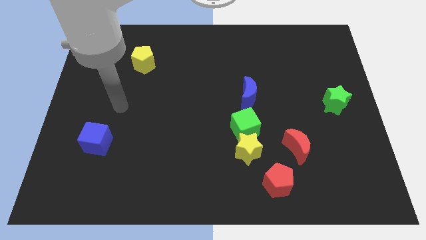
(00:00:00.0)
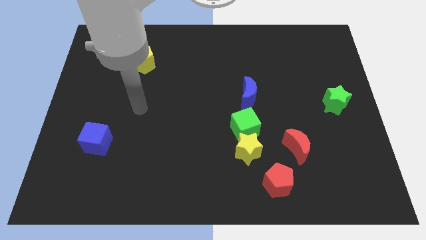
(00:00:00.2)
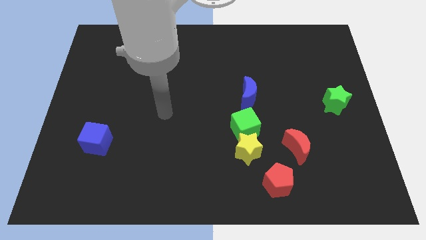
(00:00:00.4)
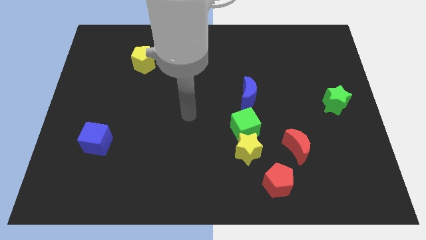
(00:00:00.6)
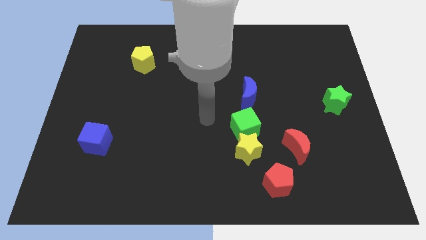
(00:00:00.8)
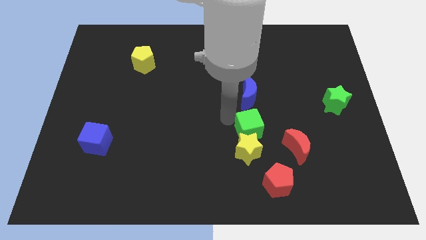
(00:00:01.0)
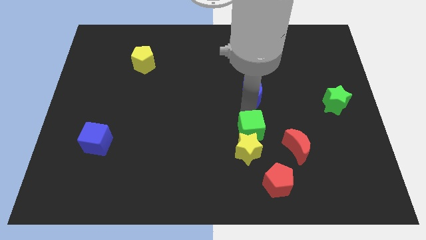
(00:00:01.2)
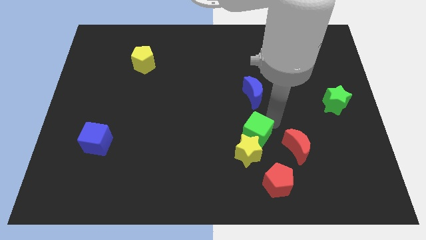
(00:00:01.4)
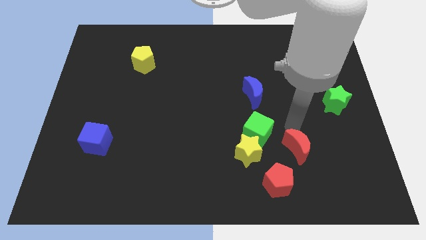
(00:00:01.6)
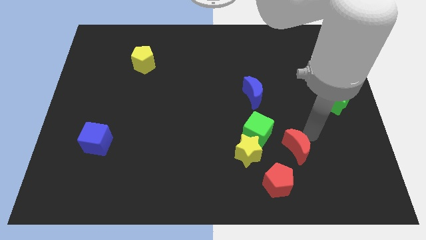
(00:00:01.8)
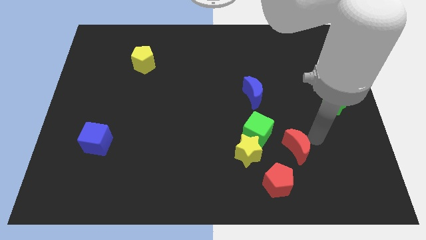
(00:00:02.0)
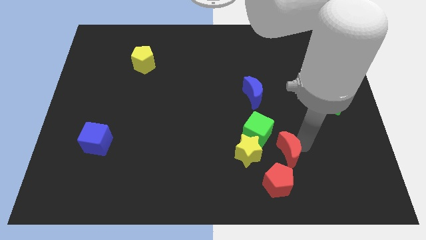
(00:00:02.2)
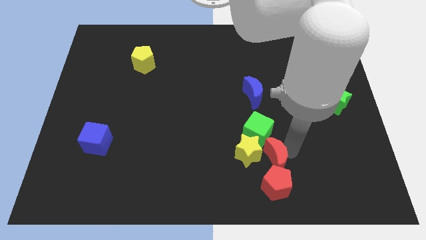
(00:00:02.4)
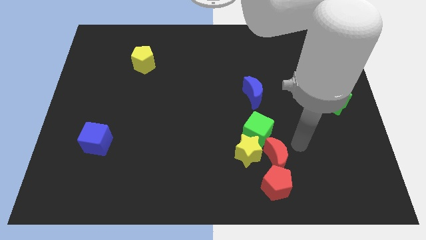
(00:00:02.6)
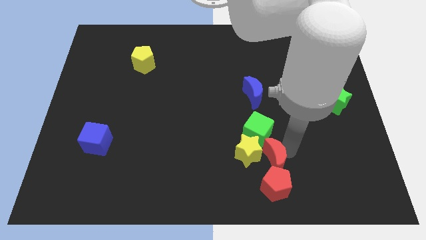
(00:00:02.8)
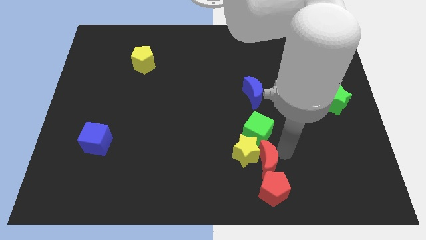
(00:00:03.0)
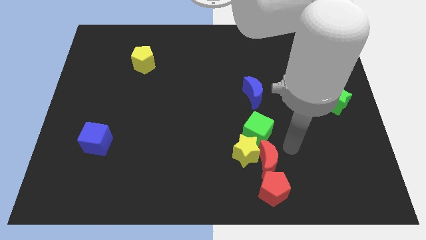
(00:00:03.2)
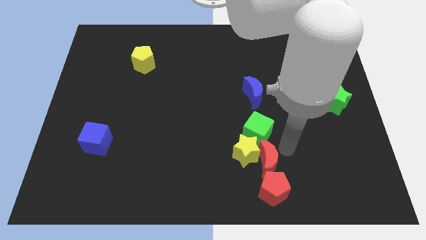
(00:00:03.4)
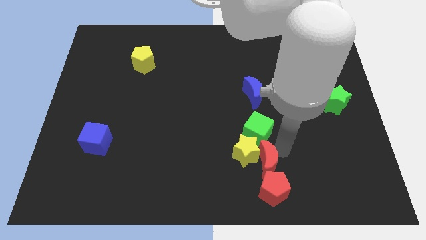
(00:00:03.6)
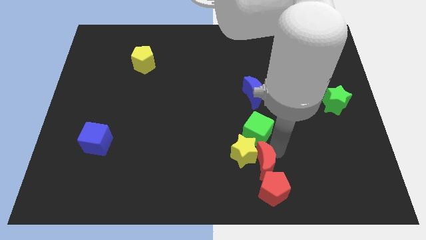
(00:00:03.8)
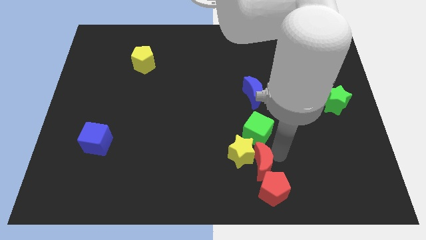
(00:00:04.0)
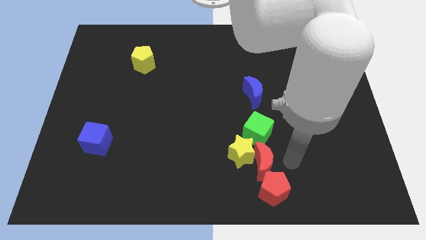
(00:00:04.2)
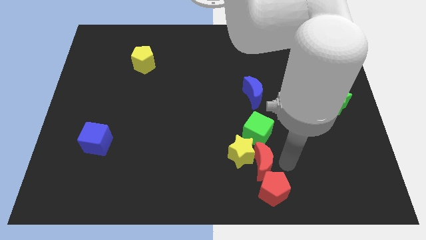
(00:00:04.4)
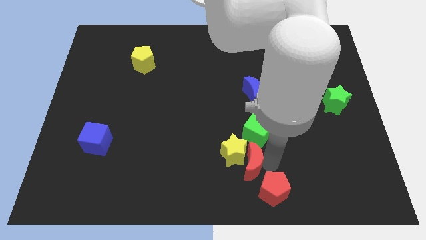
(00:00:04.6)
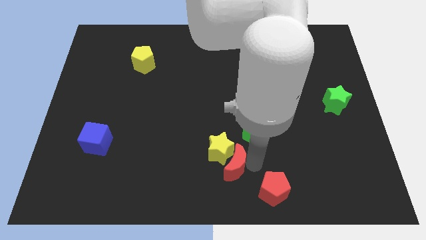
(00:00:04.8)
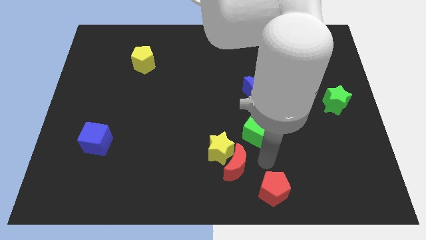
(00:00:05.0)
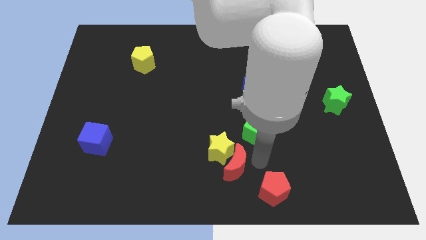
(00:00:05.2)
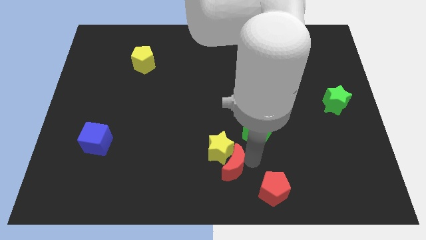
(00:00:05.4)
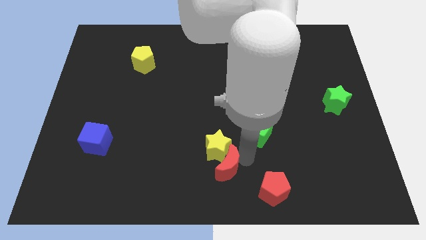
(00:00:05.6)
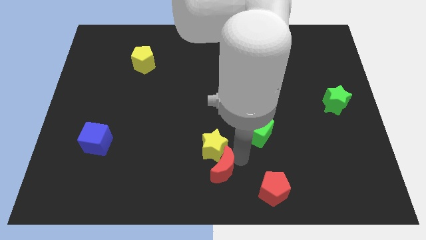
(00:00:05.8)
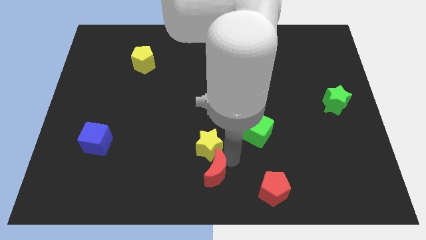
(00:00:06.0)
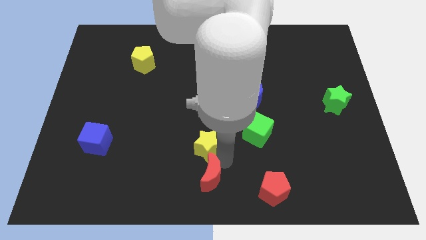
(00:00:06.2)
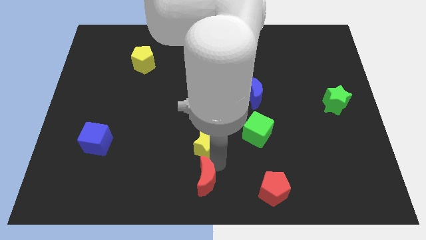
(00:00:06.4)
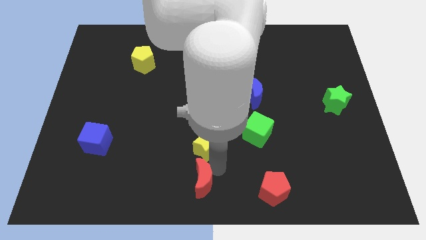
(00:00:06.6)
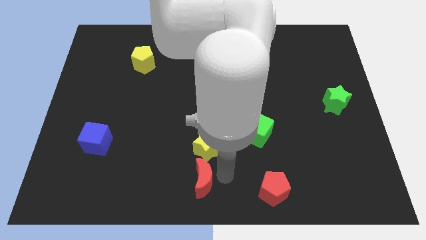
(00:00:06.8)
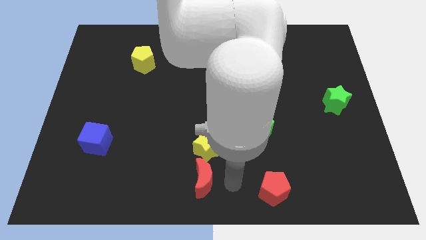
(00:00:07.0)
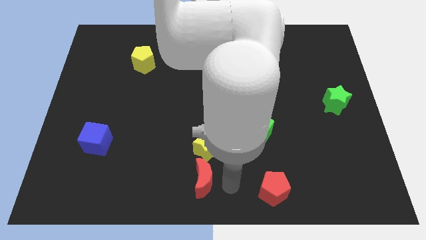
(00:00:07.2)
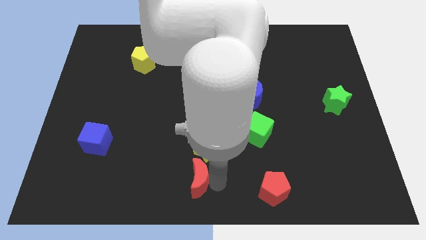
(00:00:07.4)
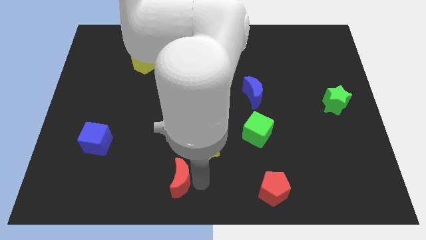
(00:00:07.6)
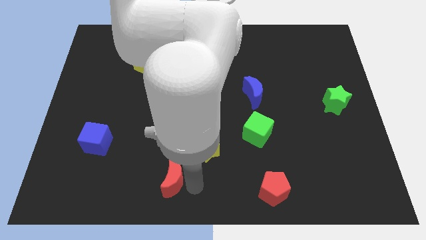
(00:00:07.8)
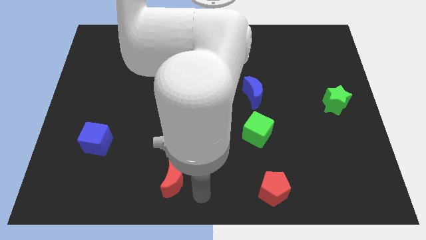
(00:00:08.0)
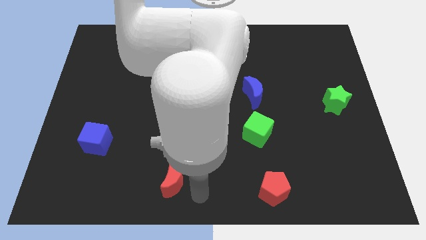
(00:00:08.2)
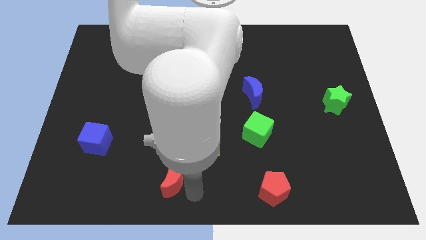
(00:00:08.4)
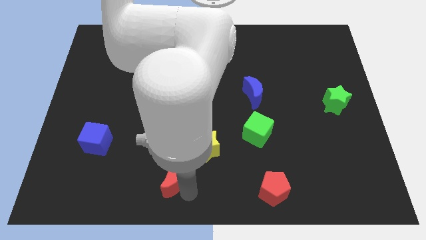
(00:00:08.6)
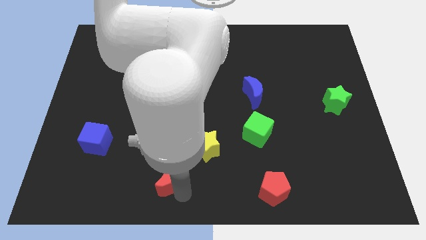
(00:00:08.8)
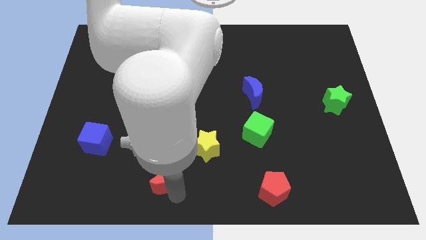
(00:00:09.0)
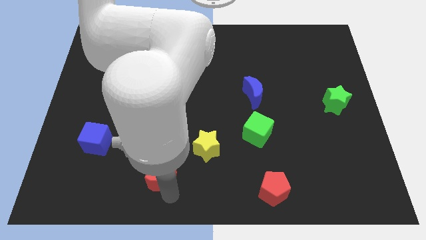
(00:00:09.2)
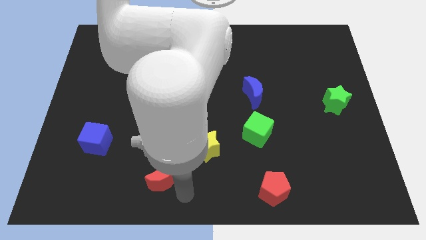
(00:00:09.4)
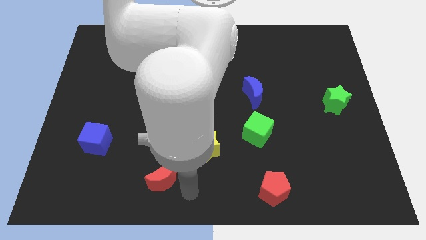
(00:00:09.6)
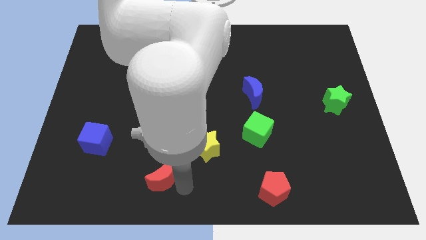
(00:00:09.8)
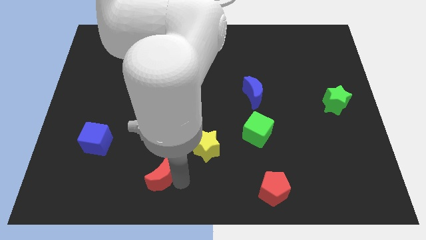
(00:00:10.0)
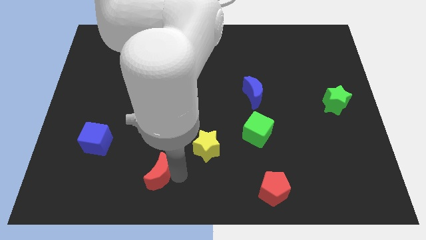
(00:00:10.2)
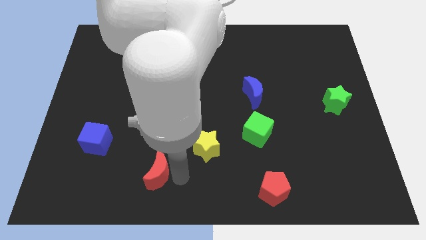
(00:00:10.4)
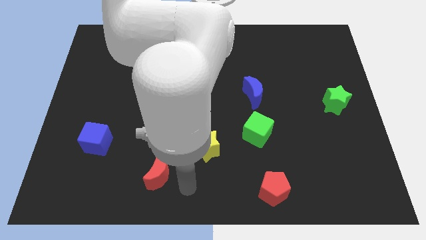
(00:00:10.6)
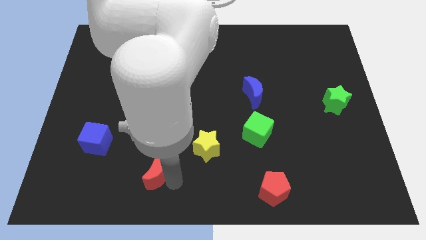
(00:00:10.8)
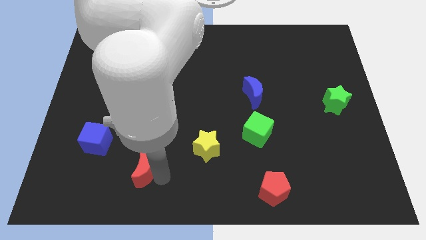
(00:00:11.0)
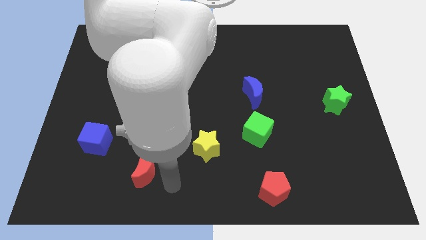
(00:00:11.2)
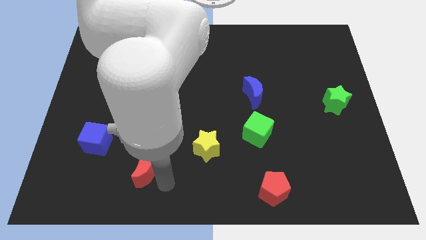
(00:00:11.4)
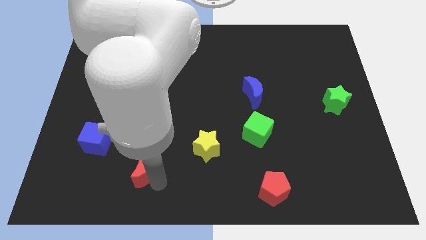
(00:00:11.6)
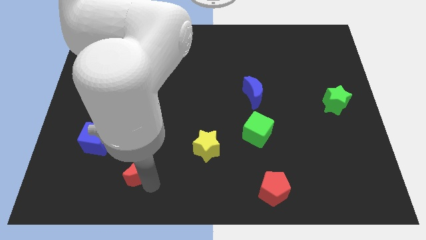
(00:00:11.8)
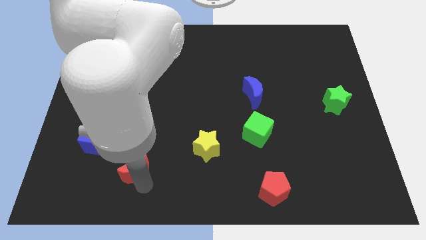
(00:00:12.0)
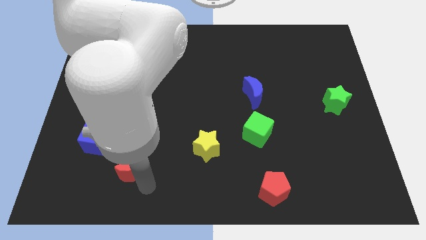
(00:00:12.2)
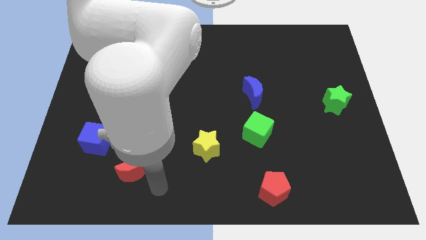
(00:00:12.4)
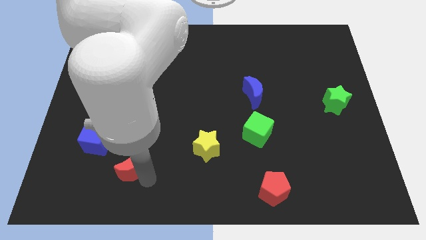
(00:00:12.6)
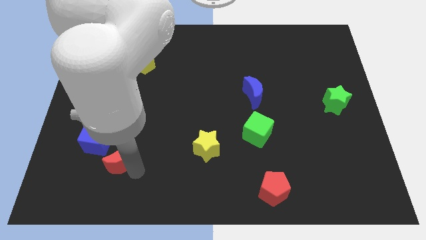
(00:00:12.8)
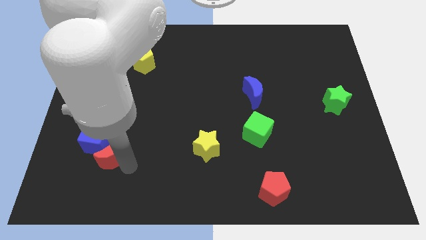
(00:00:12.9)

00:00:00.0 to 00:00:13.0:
slide the red moon close to the blue cube

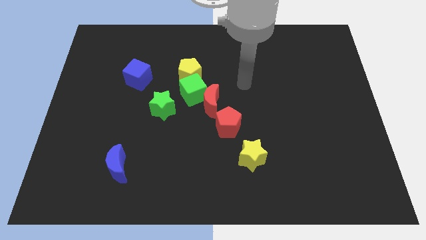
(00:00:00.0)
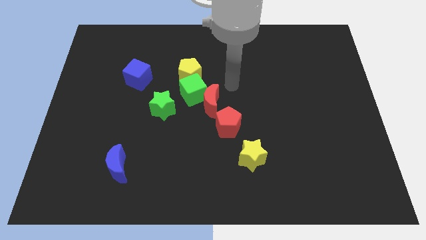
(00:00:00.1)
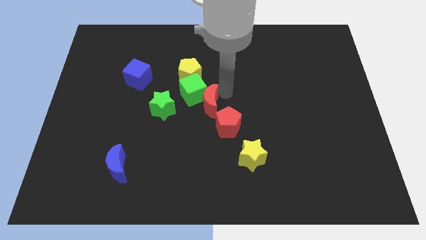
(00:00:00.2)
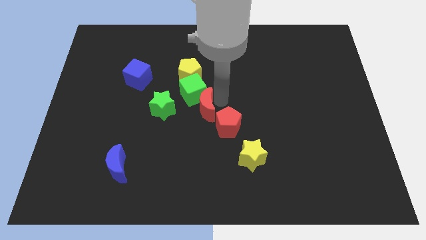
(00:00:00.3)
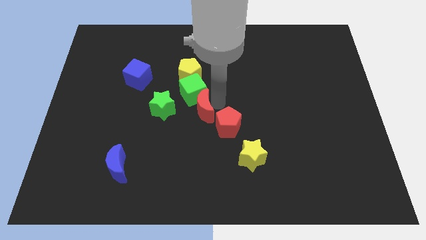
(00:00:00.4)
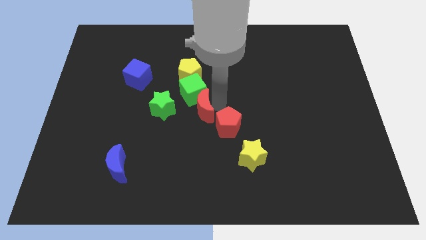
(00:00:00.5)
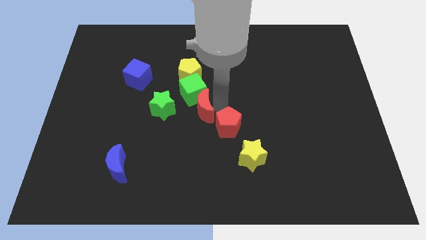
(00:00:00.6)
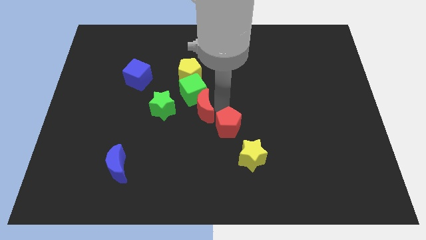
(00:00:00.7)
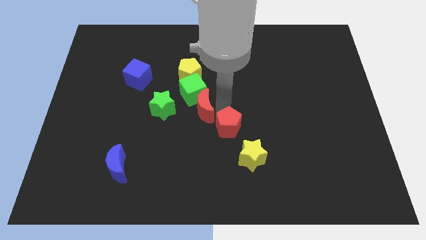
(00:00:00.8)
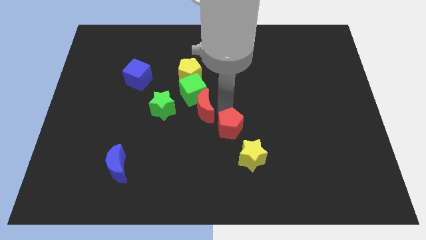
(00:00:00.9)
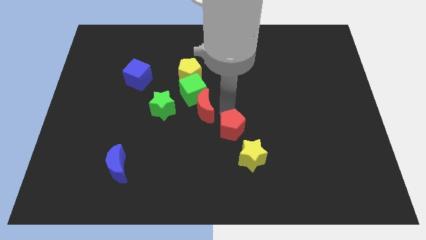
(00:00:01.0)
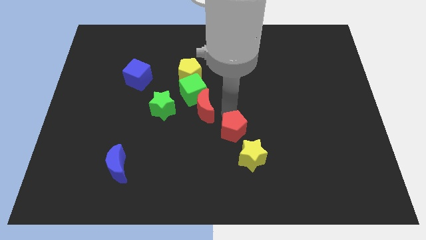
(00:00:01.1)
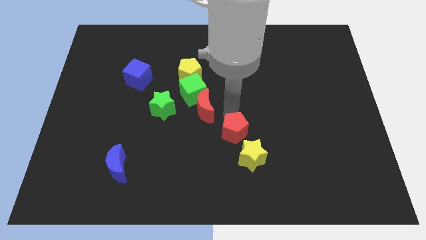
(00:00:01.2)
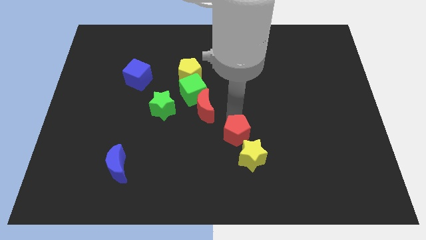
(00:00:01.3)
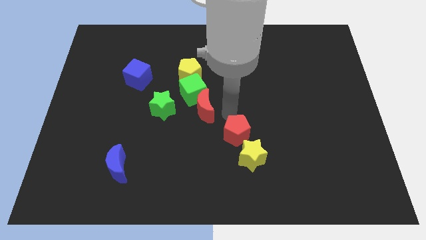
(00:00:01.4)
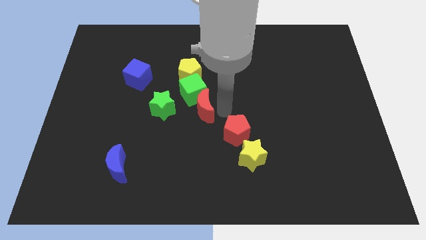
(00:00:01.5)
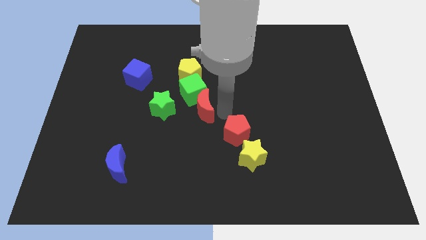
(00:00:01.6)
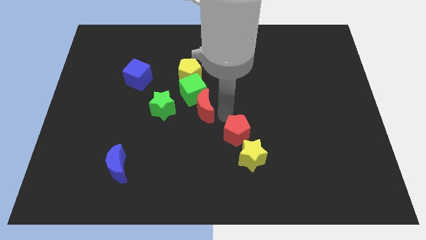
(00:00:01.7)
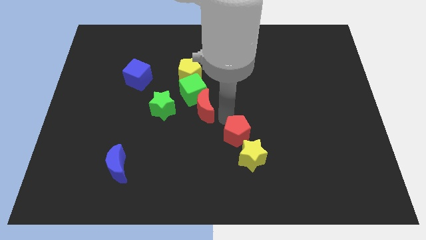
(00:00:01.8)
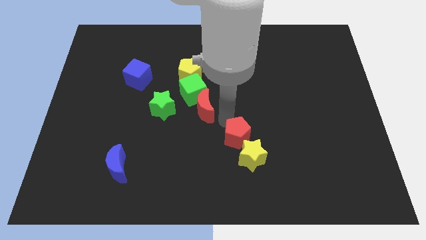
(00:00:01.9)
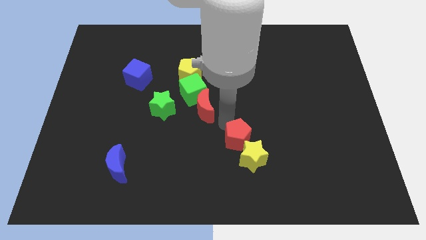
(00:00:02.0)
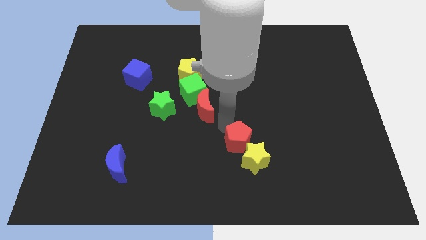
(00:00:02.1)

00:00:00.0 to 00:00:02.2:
put the red pentagon next to the yellow star
